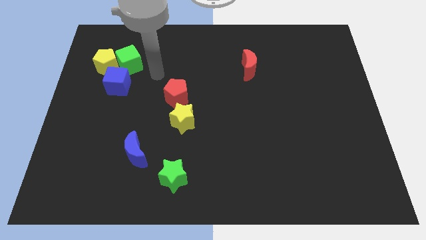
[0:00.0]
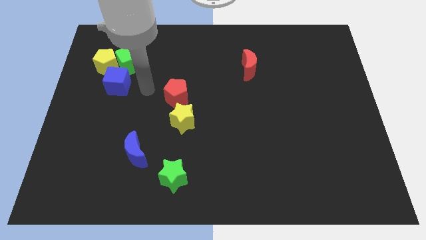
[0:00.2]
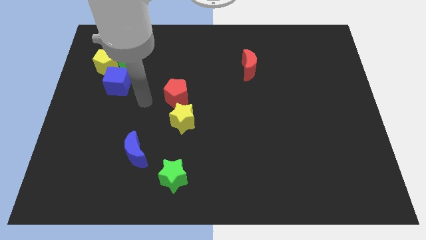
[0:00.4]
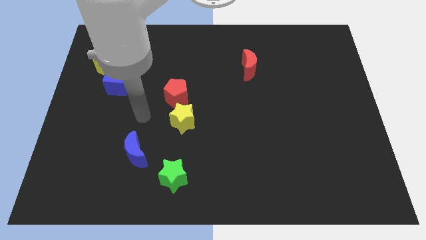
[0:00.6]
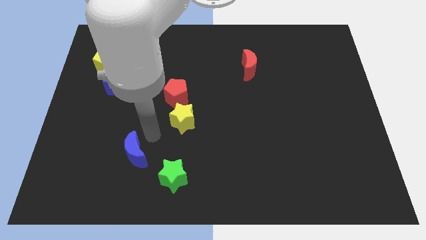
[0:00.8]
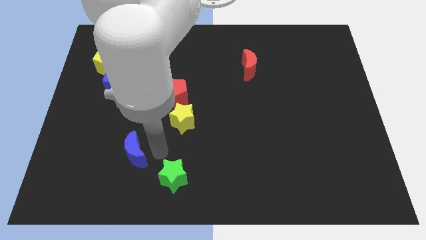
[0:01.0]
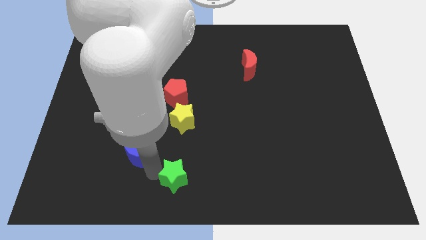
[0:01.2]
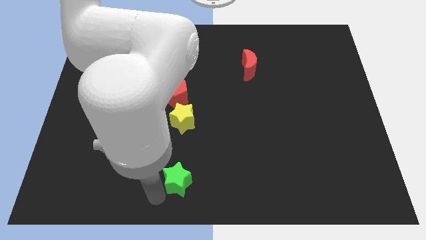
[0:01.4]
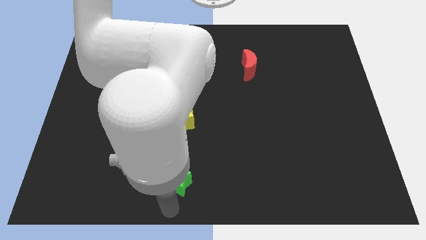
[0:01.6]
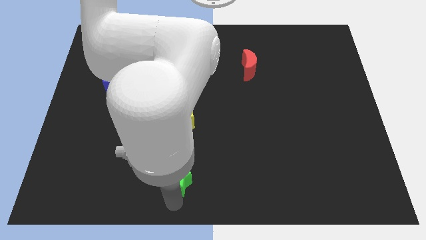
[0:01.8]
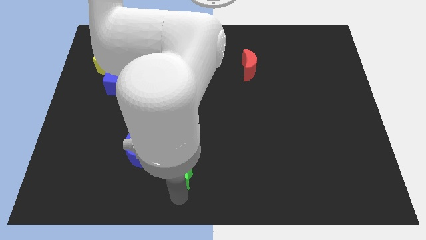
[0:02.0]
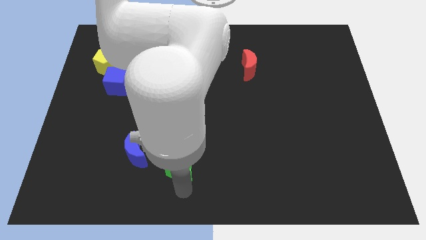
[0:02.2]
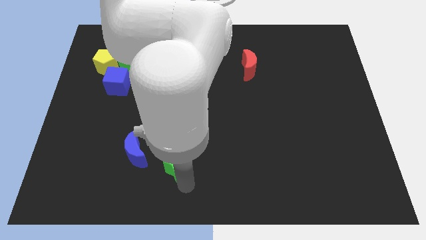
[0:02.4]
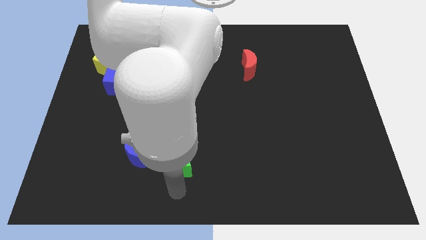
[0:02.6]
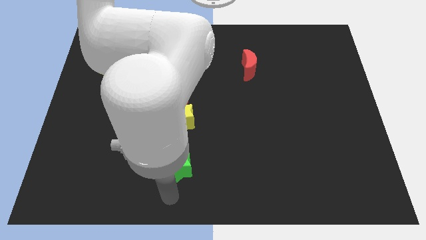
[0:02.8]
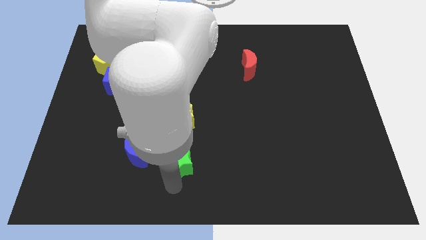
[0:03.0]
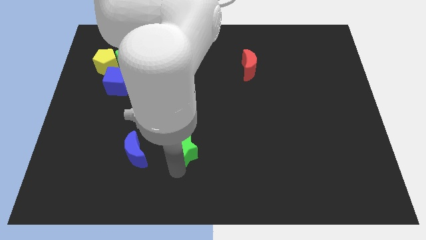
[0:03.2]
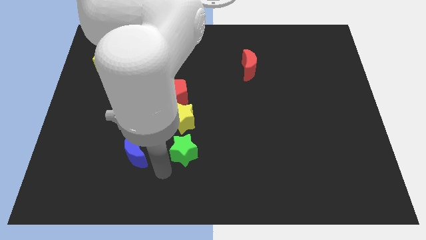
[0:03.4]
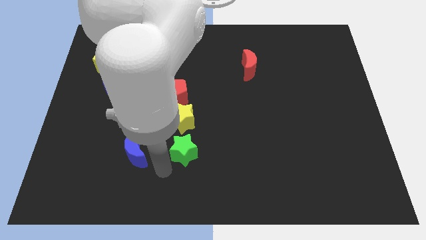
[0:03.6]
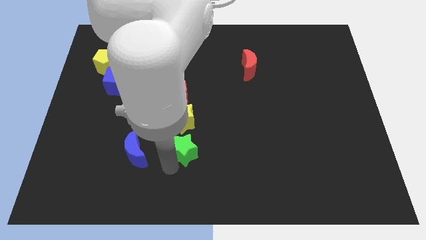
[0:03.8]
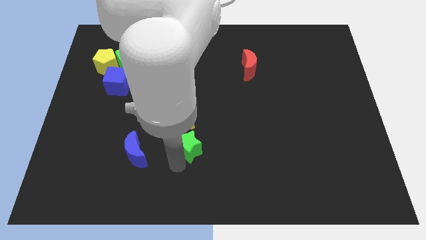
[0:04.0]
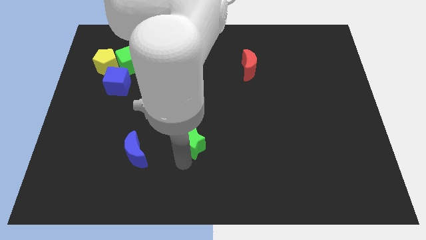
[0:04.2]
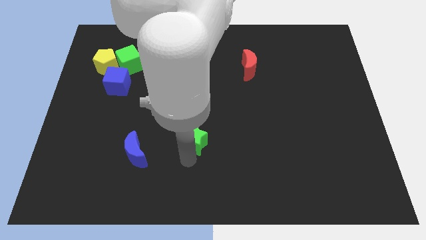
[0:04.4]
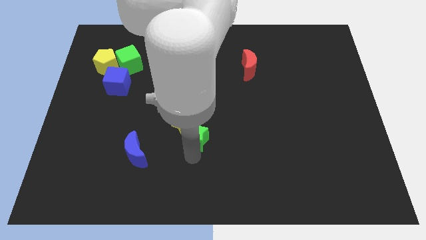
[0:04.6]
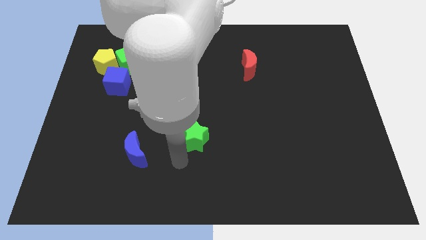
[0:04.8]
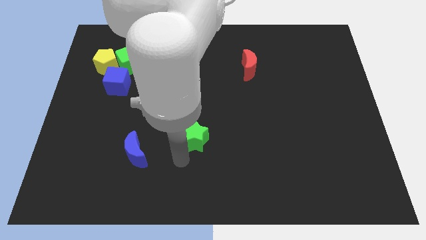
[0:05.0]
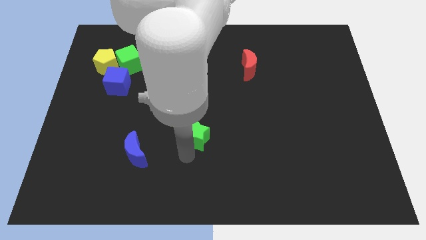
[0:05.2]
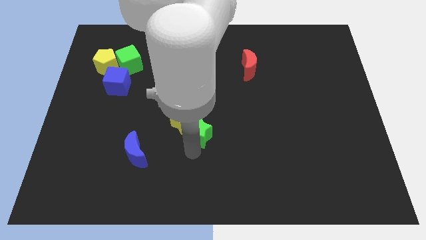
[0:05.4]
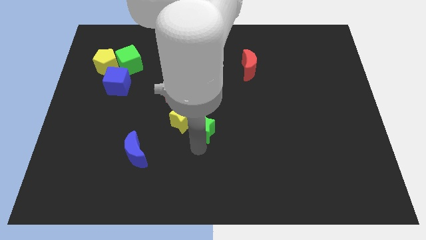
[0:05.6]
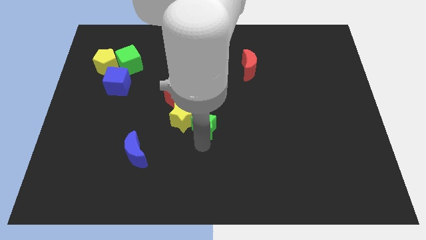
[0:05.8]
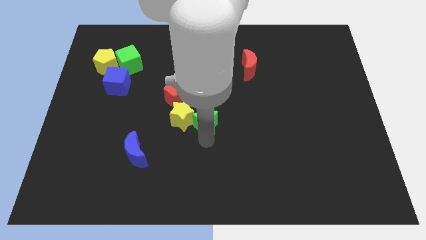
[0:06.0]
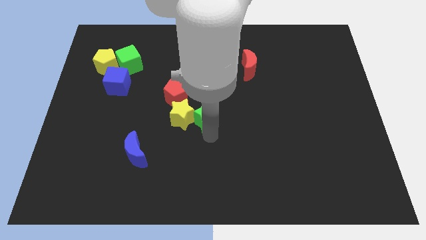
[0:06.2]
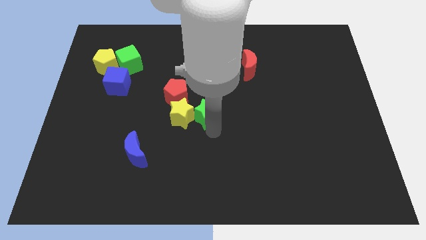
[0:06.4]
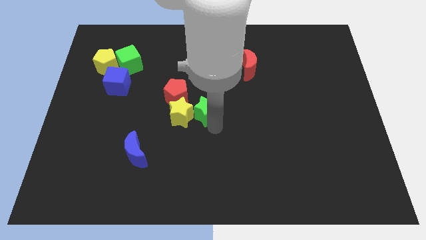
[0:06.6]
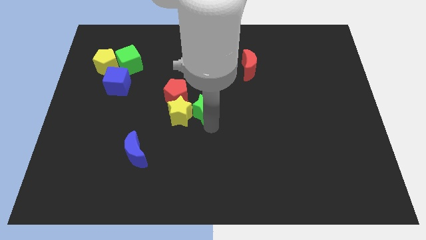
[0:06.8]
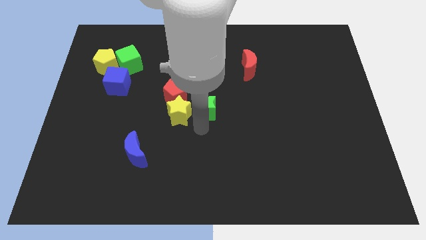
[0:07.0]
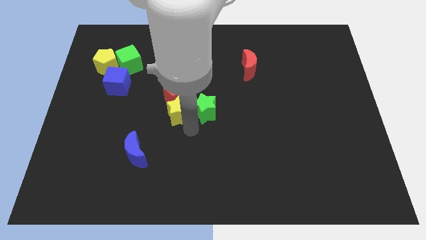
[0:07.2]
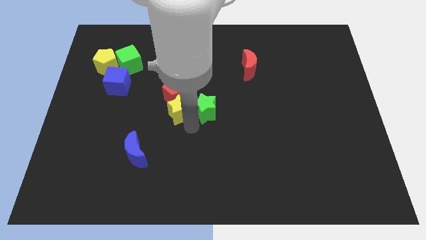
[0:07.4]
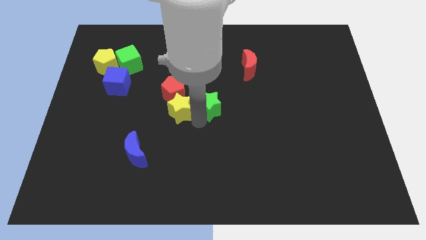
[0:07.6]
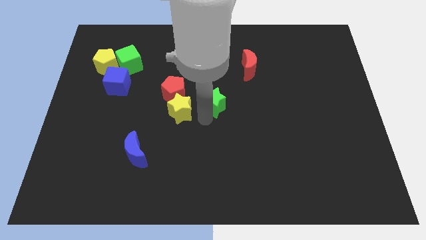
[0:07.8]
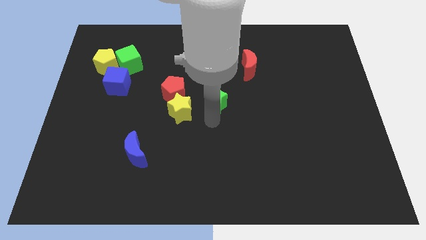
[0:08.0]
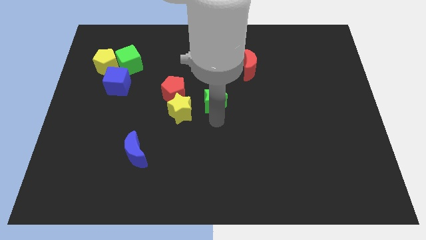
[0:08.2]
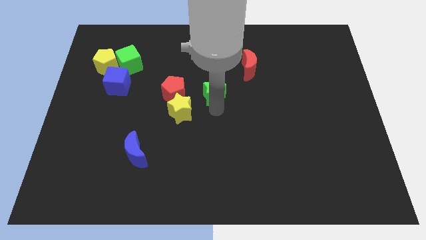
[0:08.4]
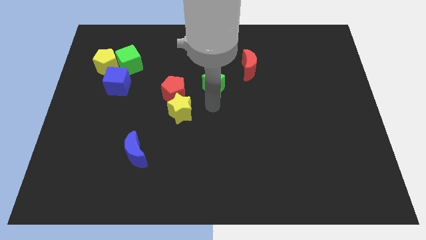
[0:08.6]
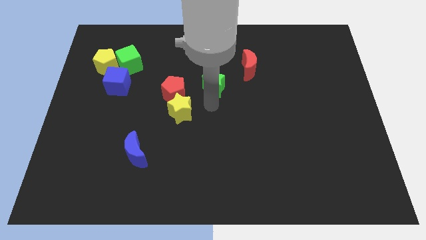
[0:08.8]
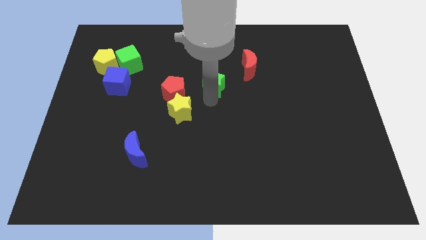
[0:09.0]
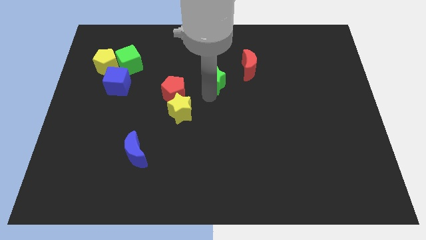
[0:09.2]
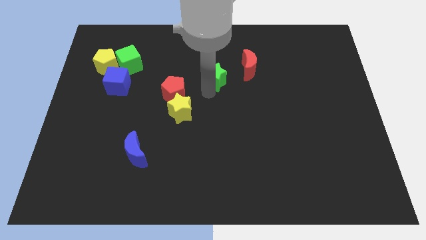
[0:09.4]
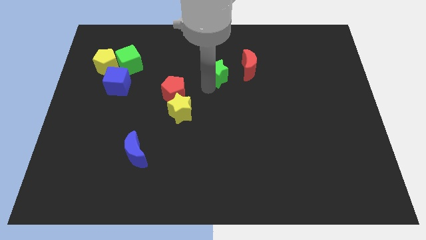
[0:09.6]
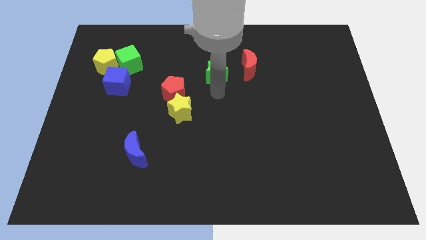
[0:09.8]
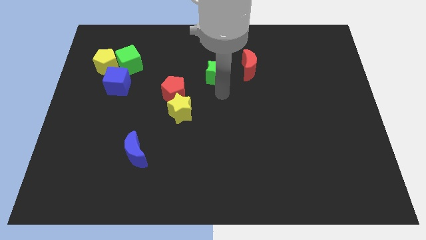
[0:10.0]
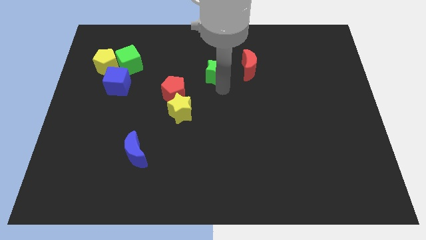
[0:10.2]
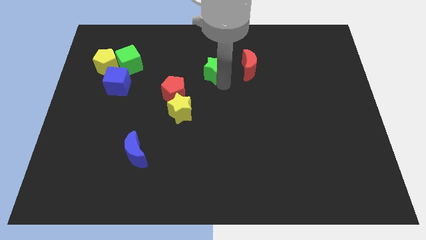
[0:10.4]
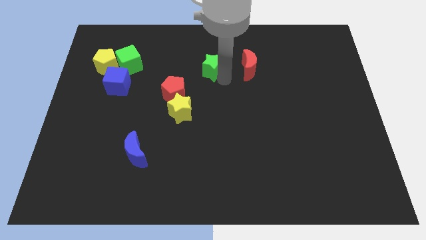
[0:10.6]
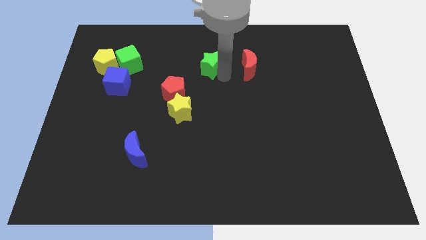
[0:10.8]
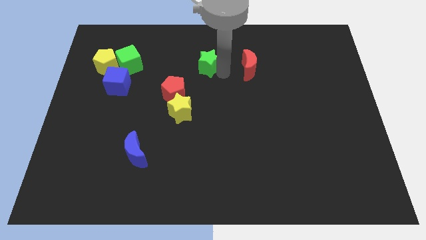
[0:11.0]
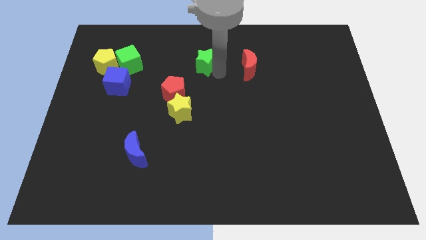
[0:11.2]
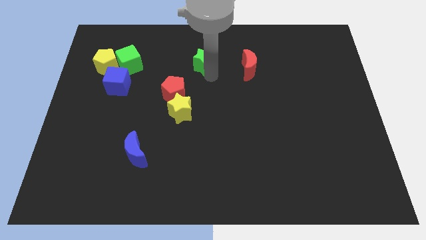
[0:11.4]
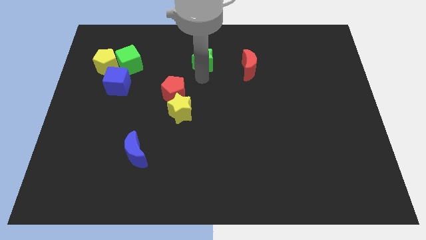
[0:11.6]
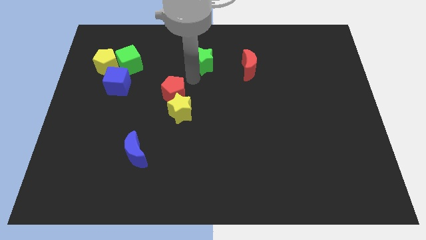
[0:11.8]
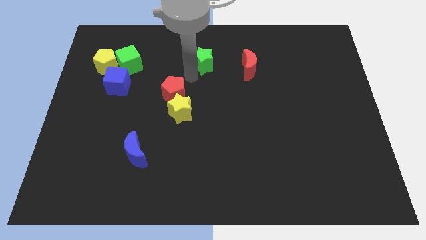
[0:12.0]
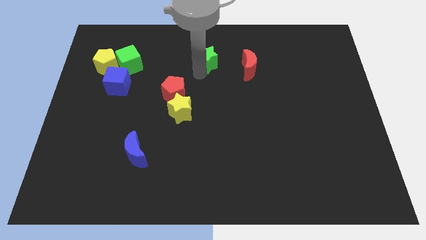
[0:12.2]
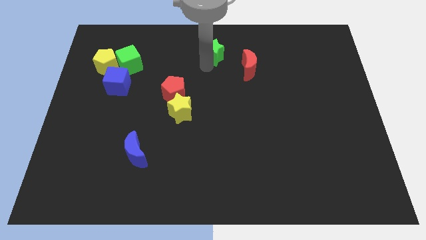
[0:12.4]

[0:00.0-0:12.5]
put the green star to the top side
